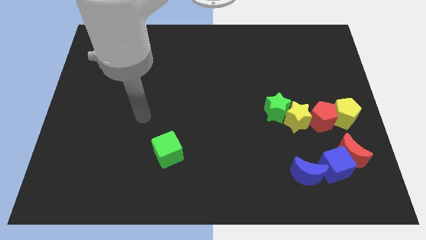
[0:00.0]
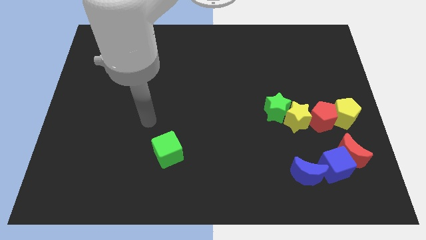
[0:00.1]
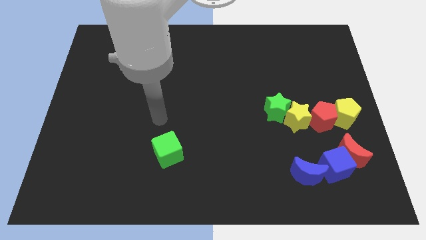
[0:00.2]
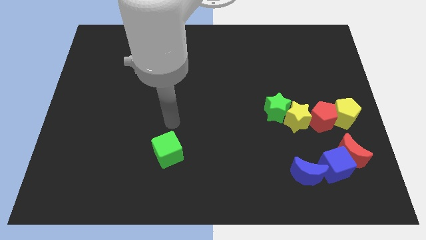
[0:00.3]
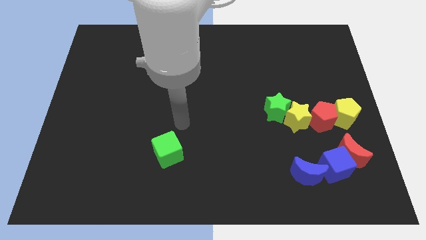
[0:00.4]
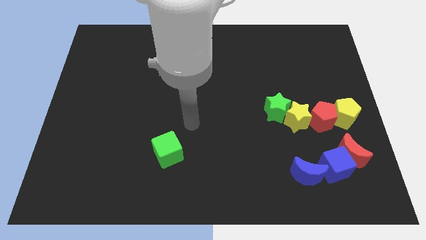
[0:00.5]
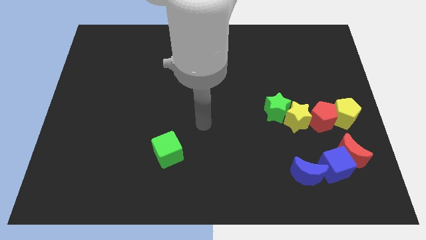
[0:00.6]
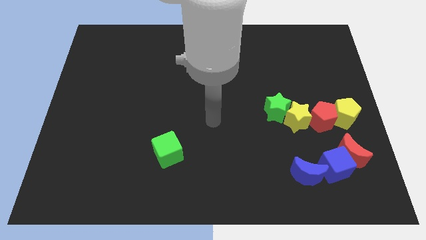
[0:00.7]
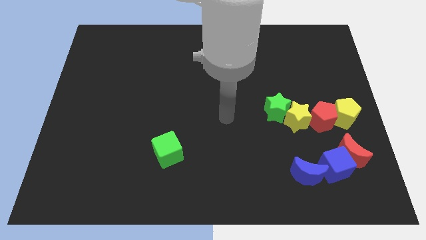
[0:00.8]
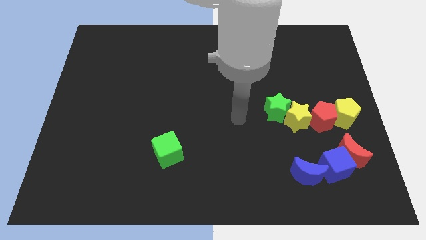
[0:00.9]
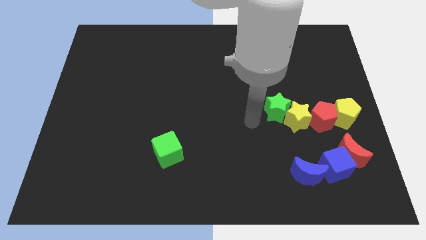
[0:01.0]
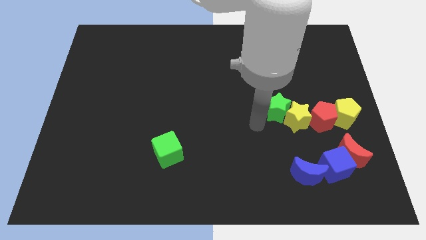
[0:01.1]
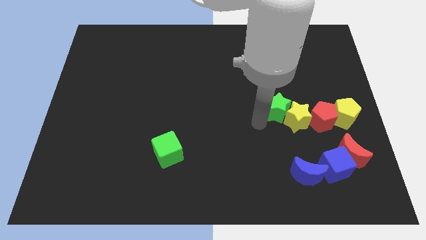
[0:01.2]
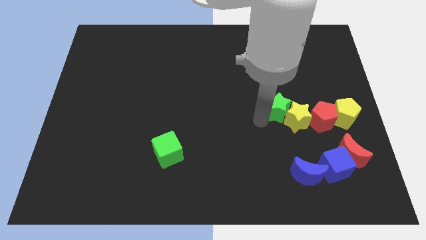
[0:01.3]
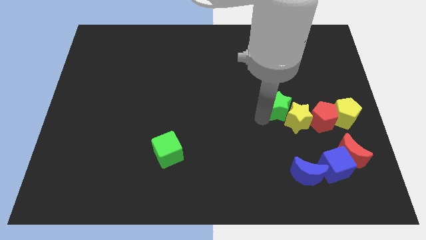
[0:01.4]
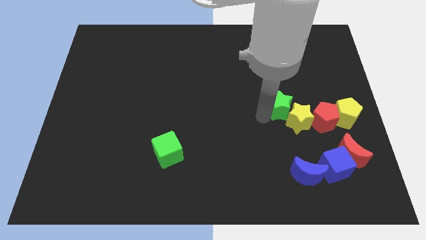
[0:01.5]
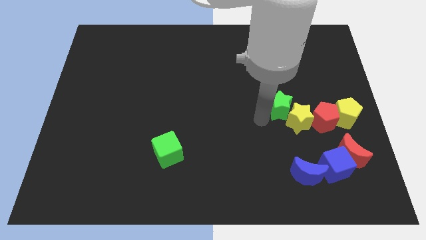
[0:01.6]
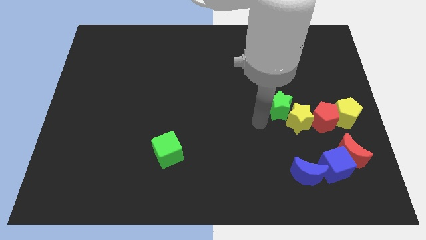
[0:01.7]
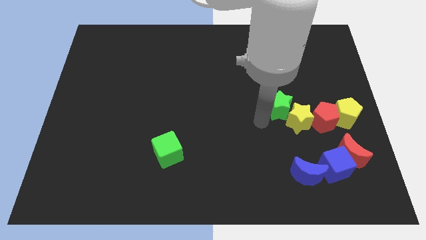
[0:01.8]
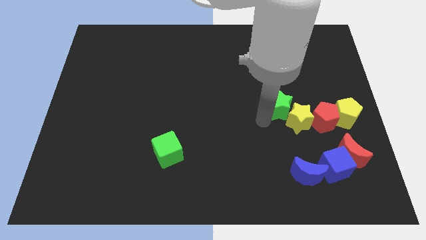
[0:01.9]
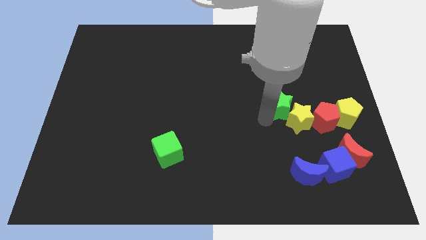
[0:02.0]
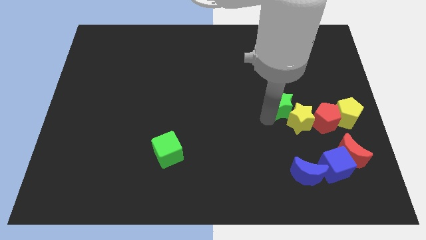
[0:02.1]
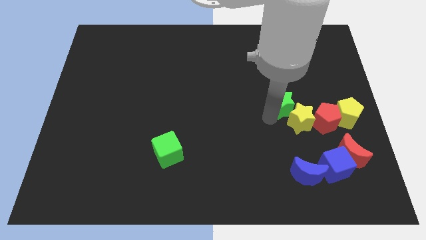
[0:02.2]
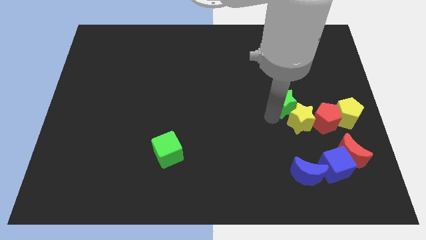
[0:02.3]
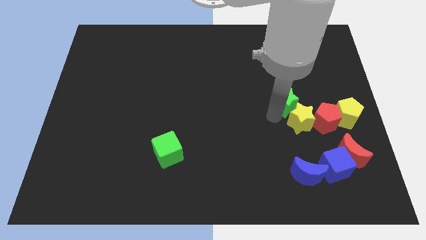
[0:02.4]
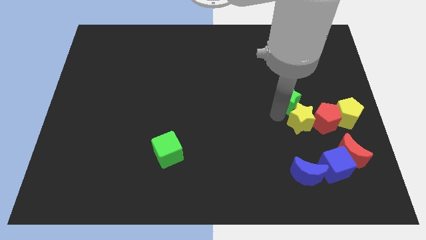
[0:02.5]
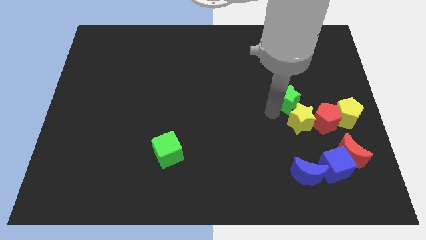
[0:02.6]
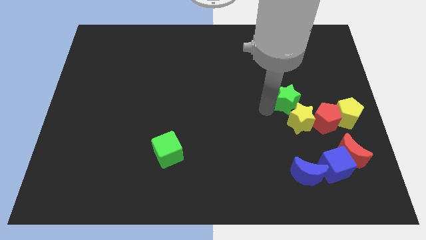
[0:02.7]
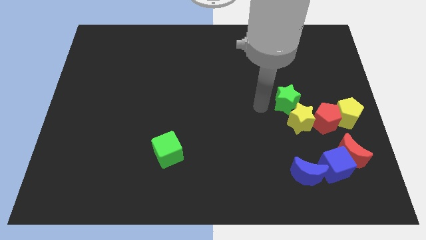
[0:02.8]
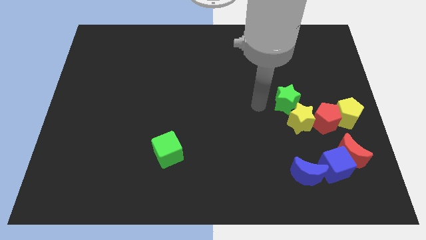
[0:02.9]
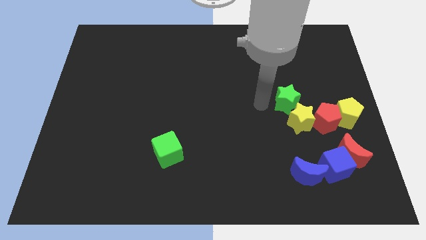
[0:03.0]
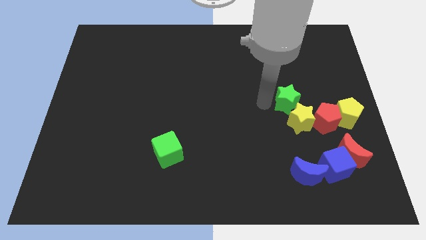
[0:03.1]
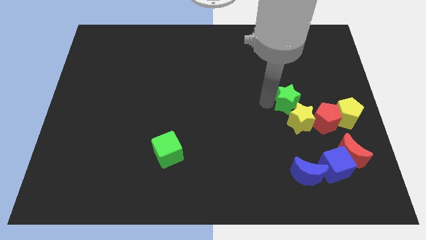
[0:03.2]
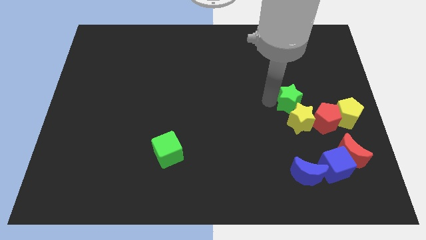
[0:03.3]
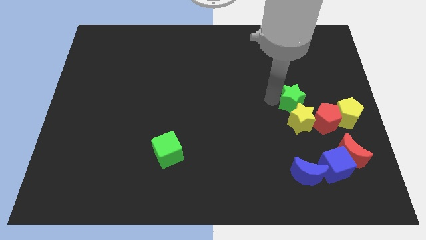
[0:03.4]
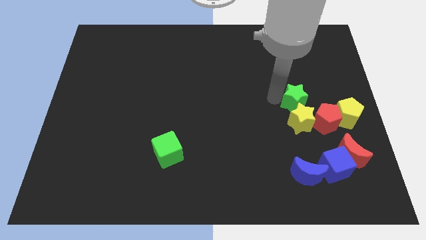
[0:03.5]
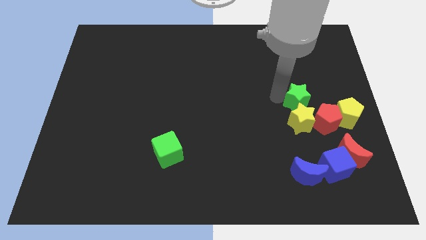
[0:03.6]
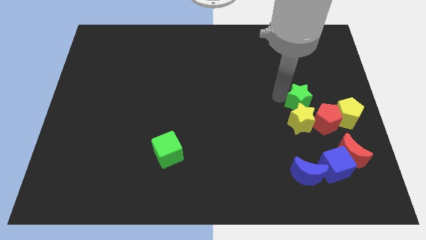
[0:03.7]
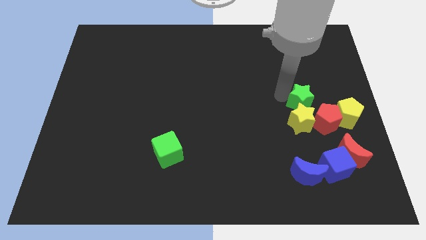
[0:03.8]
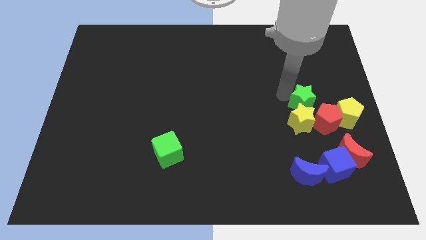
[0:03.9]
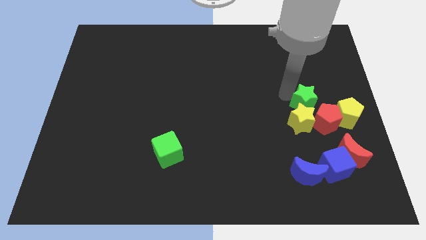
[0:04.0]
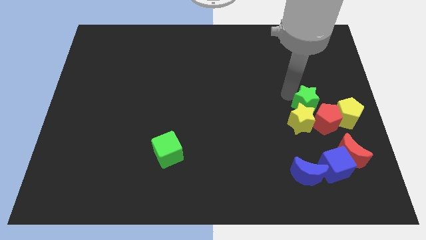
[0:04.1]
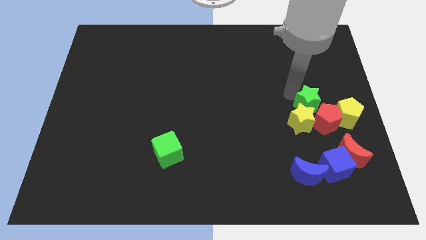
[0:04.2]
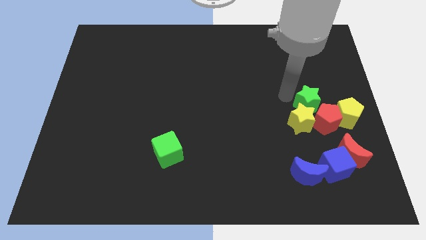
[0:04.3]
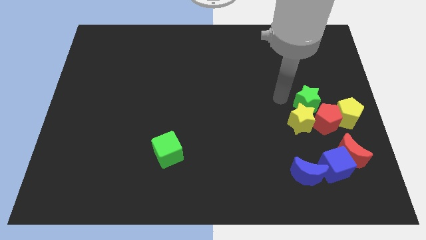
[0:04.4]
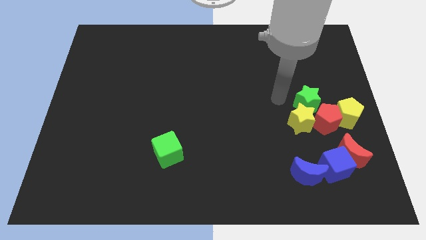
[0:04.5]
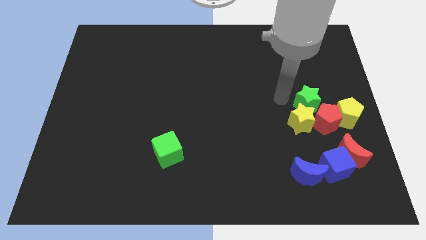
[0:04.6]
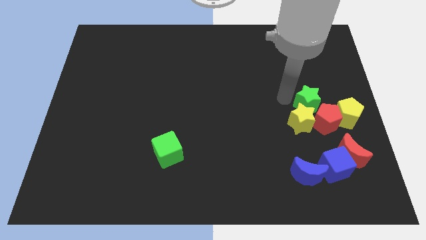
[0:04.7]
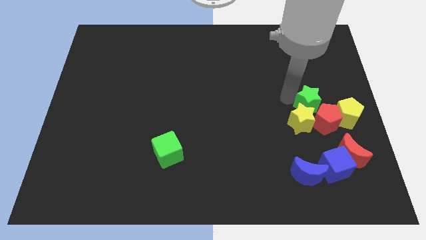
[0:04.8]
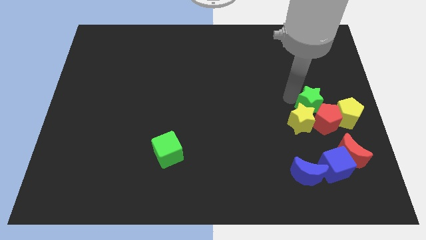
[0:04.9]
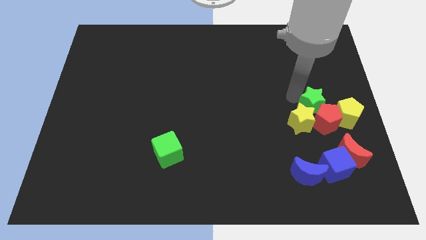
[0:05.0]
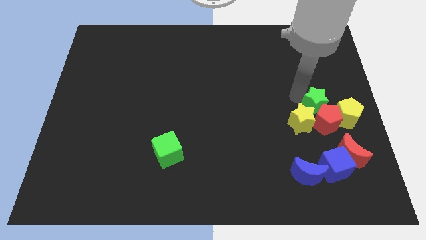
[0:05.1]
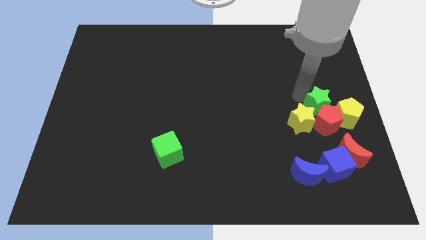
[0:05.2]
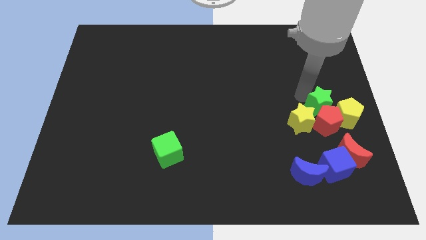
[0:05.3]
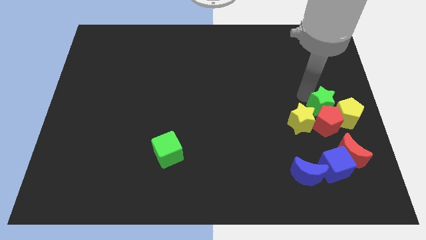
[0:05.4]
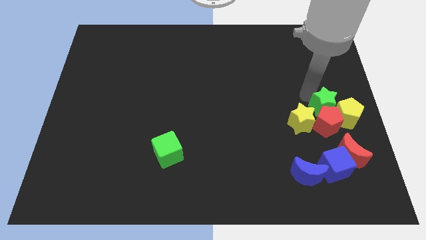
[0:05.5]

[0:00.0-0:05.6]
move the green star towards the yellow pentagon

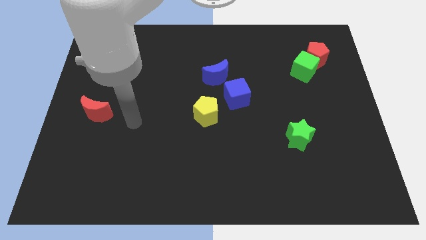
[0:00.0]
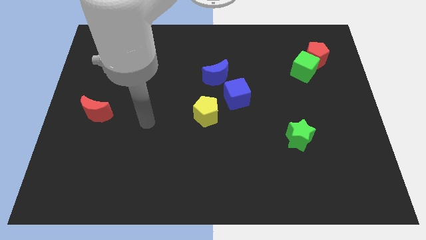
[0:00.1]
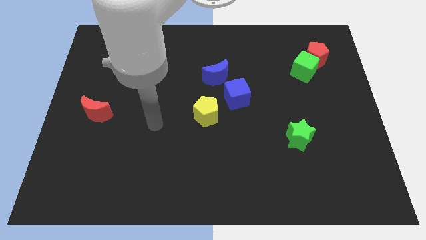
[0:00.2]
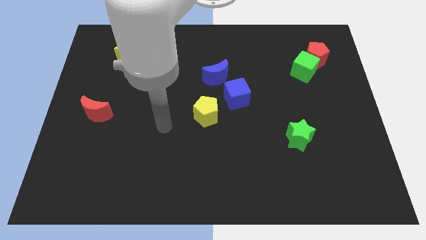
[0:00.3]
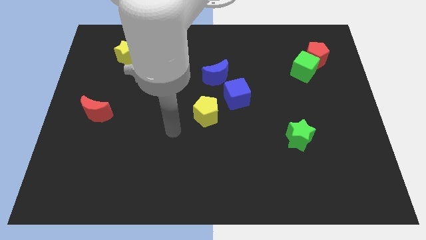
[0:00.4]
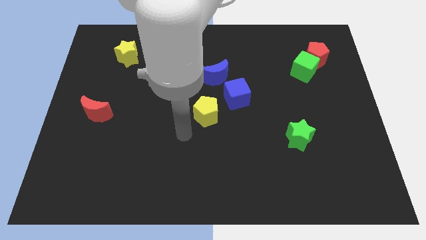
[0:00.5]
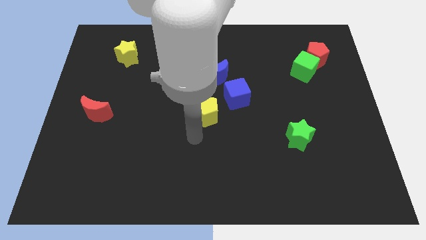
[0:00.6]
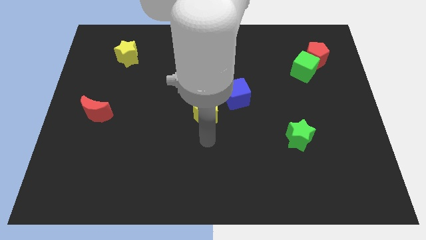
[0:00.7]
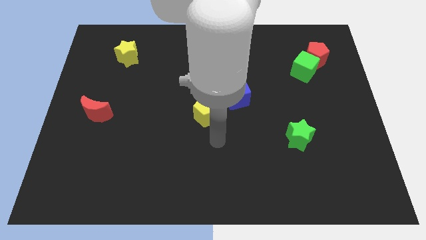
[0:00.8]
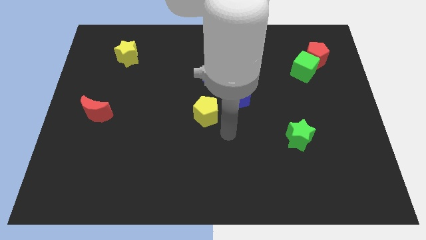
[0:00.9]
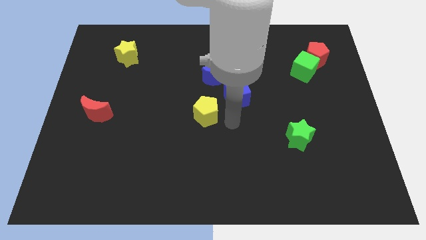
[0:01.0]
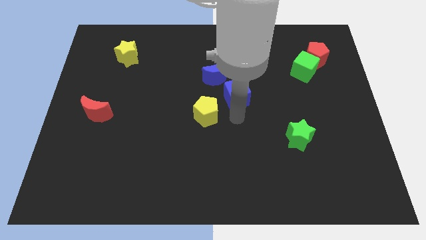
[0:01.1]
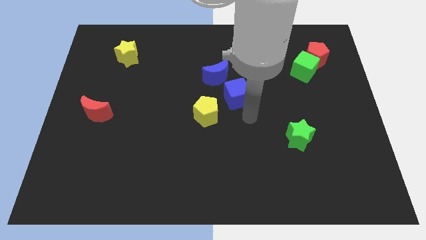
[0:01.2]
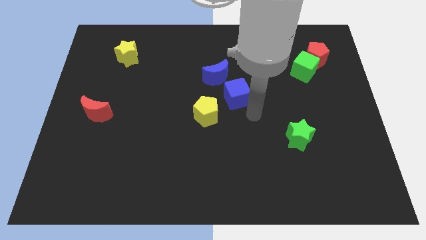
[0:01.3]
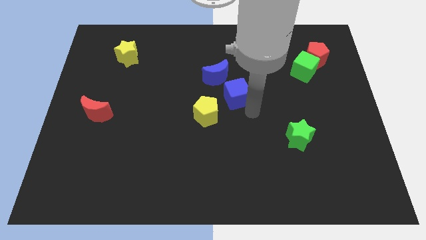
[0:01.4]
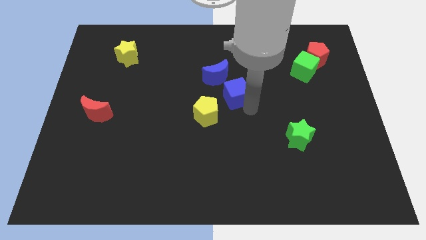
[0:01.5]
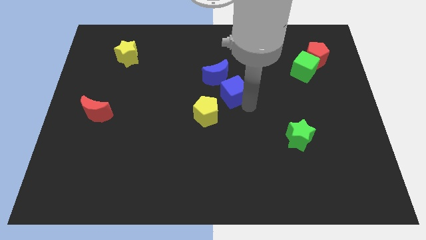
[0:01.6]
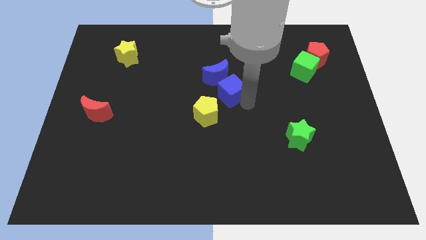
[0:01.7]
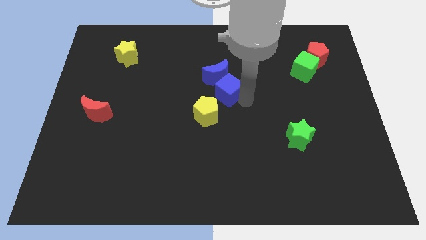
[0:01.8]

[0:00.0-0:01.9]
push the blue cube close to the blue moon

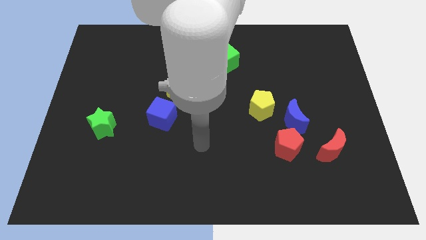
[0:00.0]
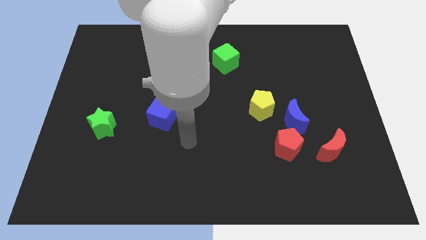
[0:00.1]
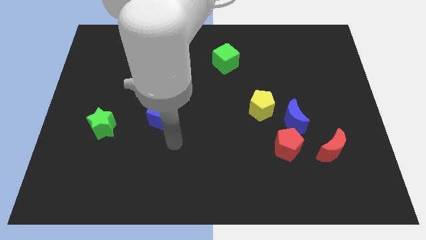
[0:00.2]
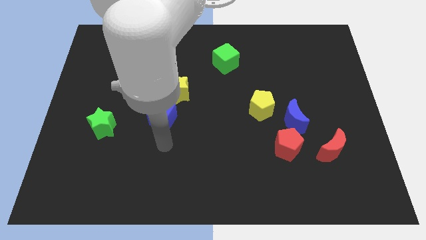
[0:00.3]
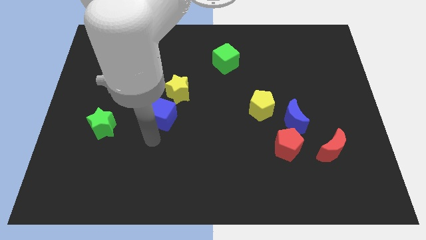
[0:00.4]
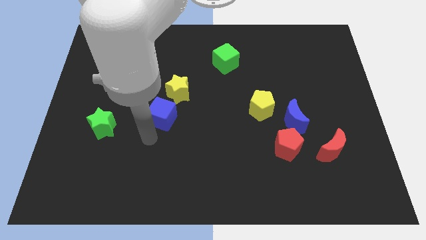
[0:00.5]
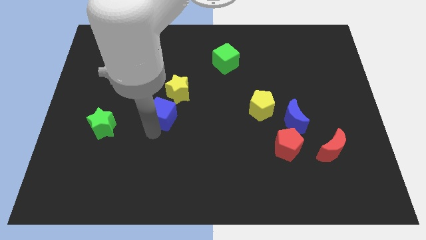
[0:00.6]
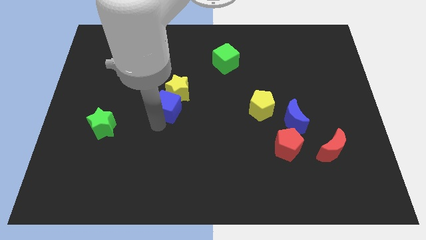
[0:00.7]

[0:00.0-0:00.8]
push the blue cube to the yellow star
